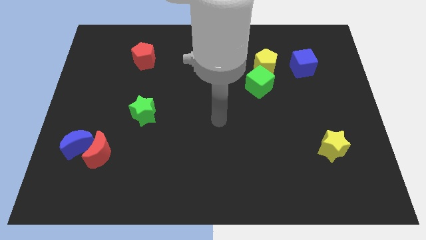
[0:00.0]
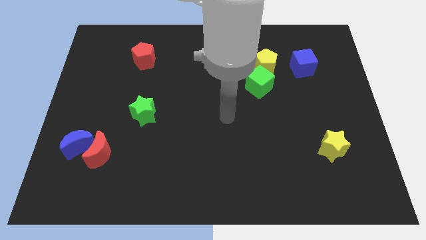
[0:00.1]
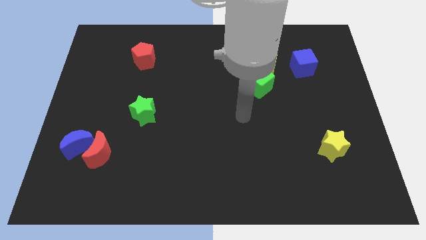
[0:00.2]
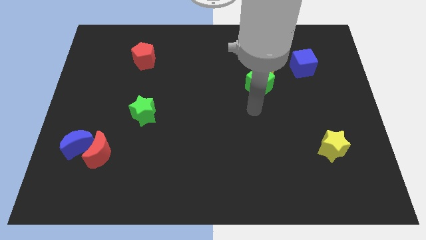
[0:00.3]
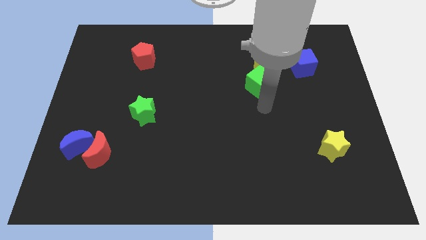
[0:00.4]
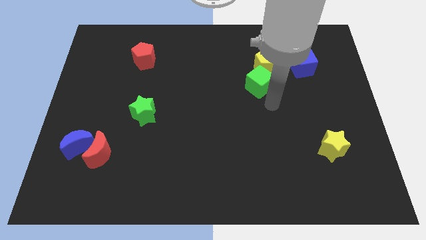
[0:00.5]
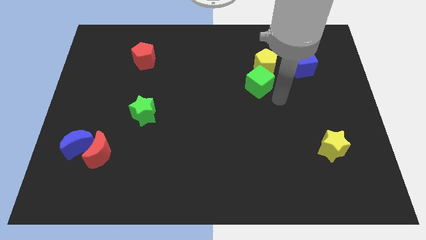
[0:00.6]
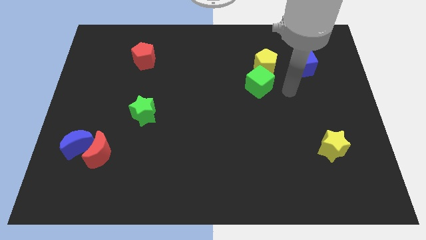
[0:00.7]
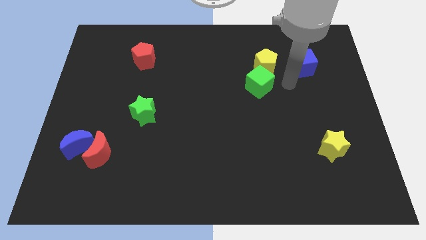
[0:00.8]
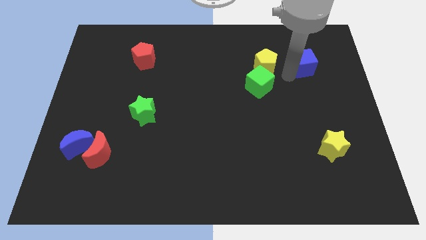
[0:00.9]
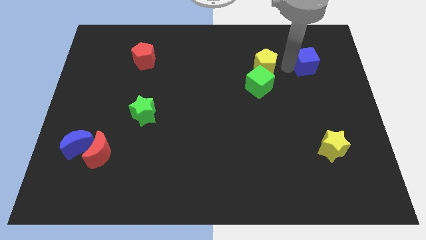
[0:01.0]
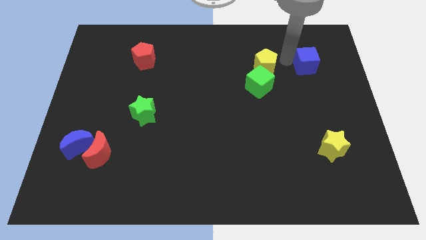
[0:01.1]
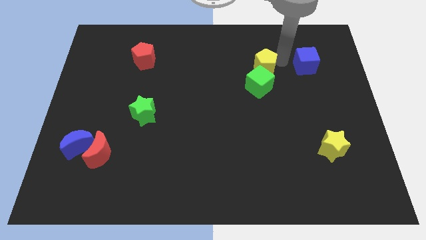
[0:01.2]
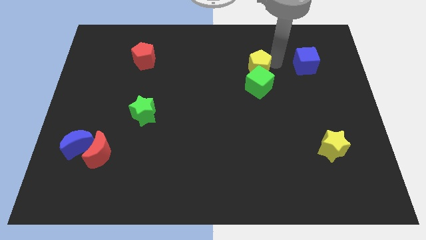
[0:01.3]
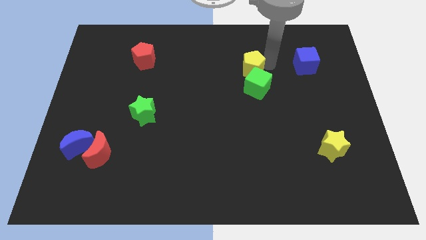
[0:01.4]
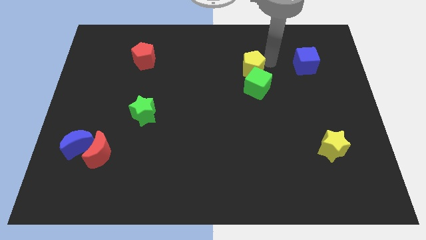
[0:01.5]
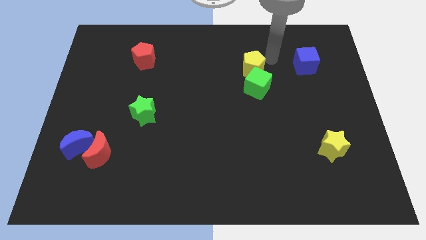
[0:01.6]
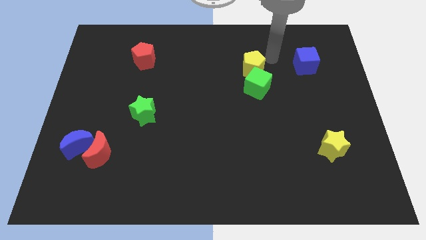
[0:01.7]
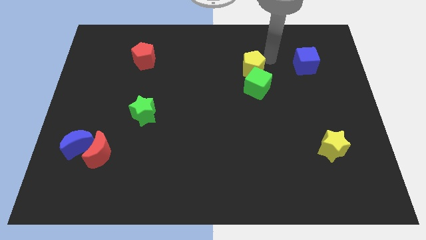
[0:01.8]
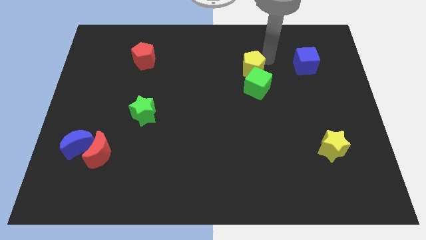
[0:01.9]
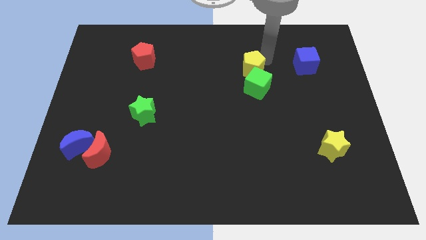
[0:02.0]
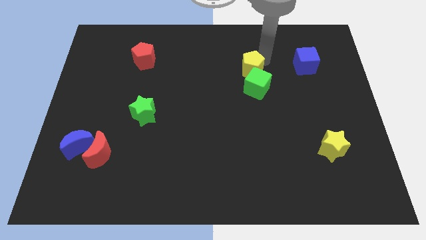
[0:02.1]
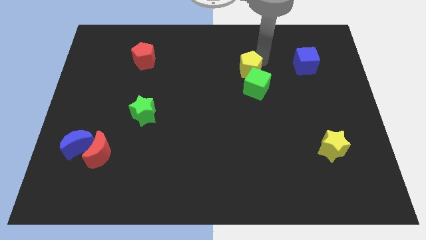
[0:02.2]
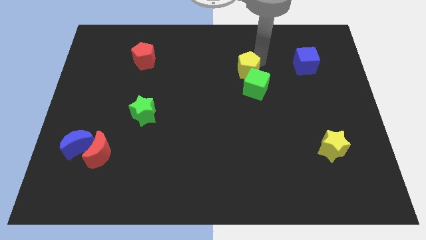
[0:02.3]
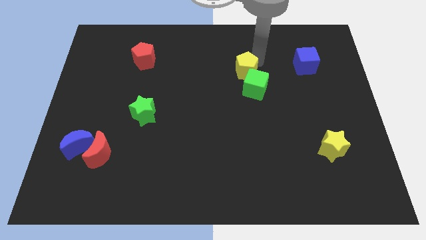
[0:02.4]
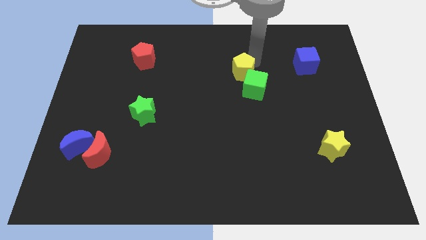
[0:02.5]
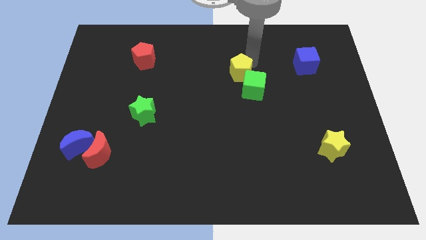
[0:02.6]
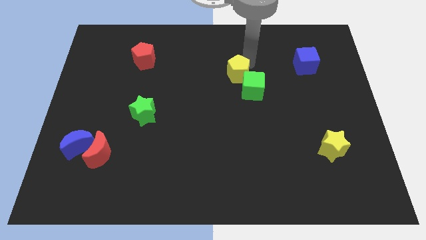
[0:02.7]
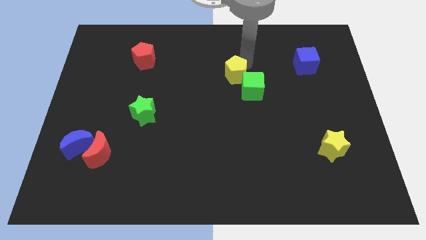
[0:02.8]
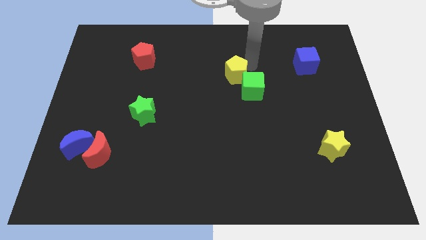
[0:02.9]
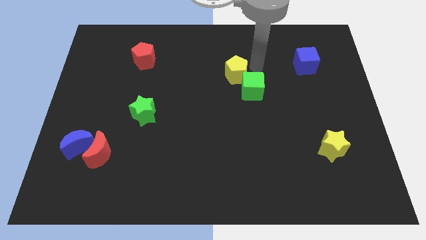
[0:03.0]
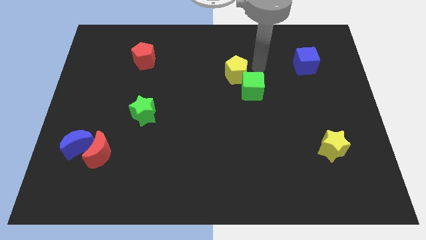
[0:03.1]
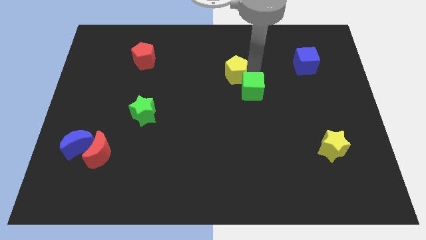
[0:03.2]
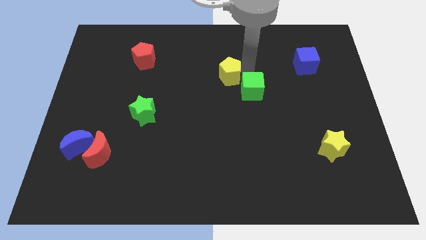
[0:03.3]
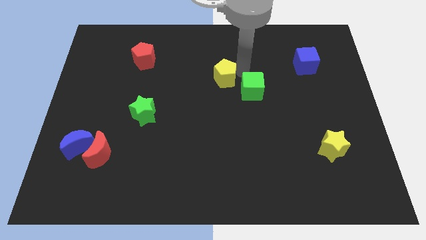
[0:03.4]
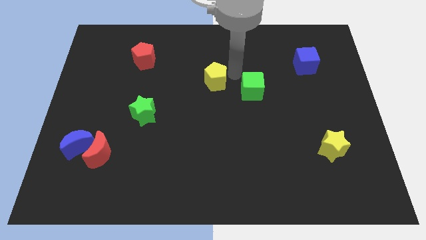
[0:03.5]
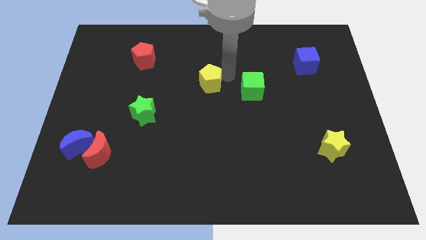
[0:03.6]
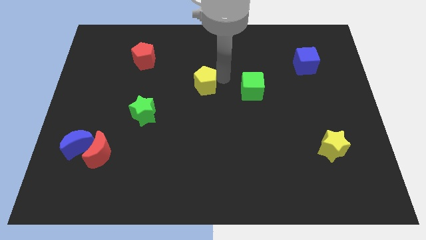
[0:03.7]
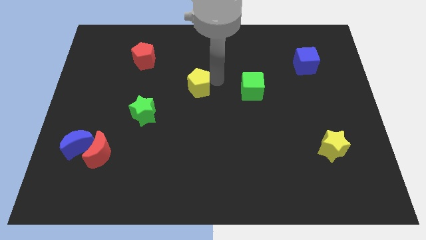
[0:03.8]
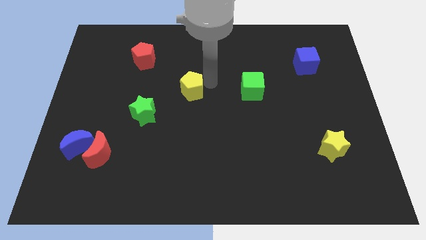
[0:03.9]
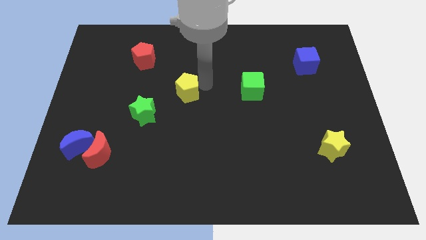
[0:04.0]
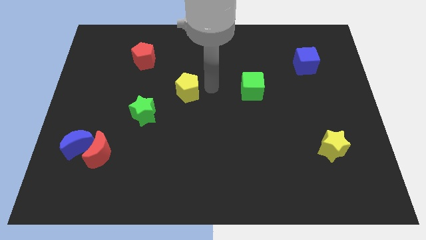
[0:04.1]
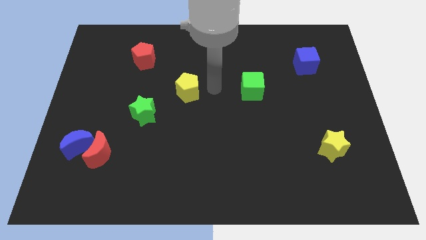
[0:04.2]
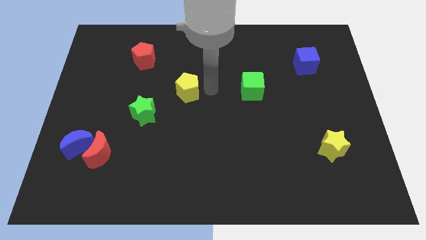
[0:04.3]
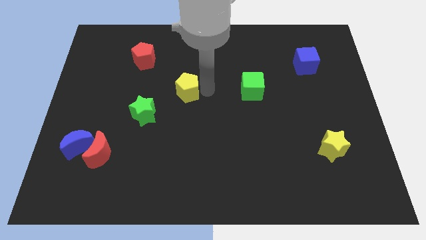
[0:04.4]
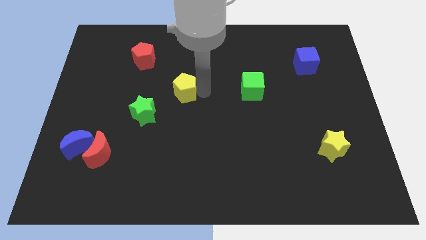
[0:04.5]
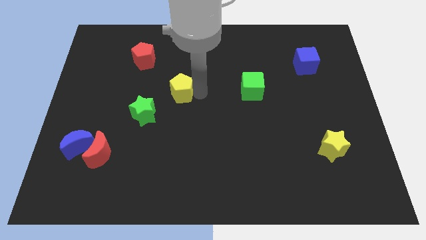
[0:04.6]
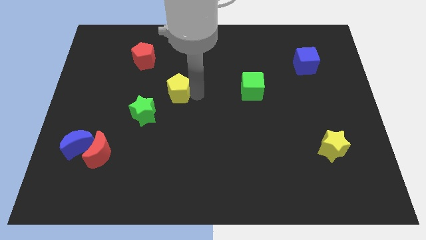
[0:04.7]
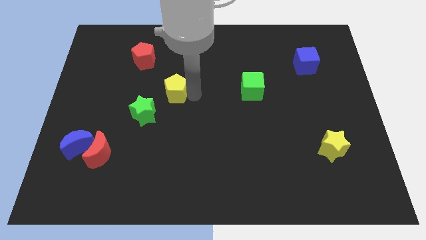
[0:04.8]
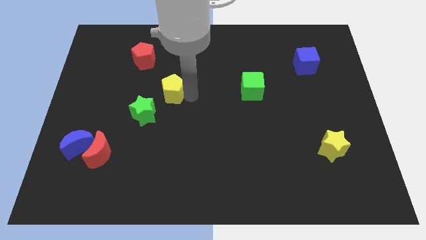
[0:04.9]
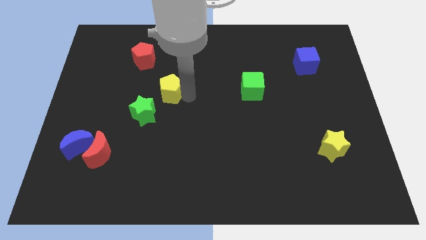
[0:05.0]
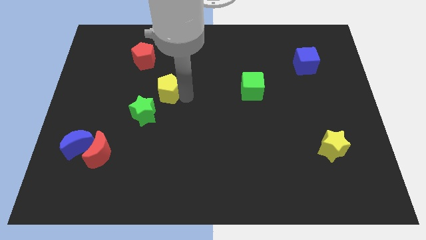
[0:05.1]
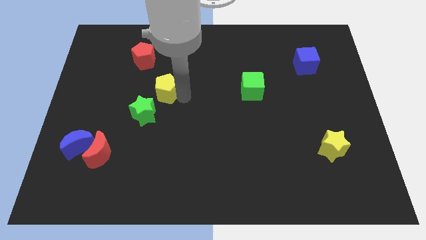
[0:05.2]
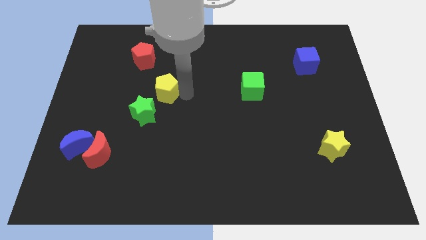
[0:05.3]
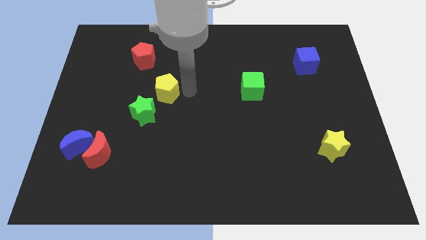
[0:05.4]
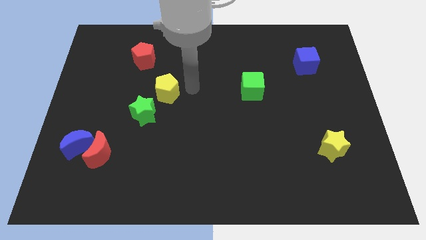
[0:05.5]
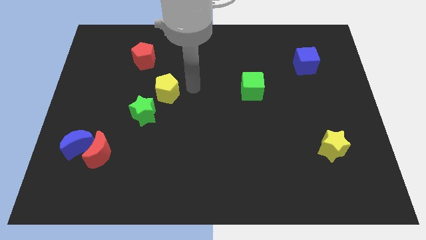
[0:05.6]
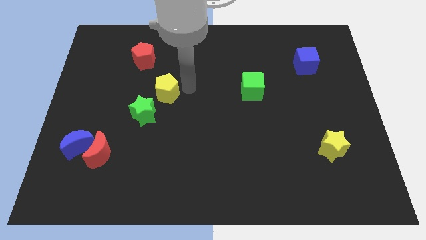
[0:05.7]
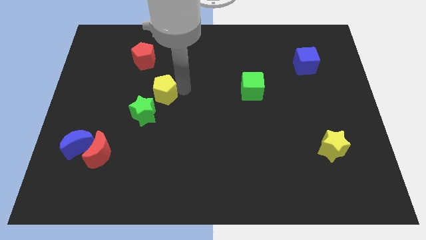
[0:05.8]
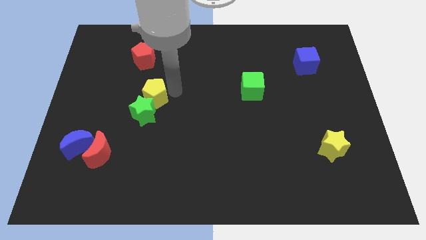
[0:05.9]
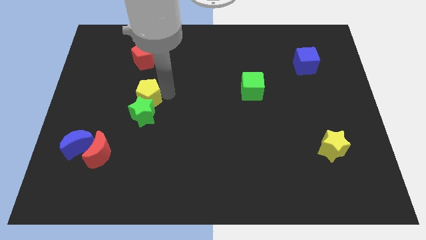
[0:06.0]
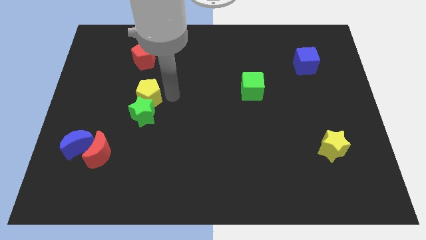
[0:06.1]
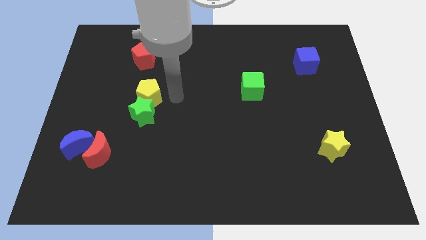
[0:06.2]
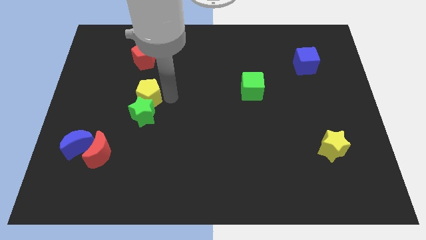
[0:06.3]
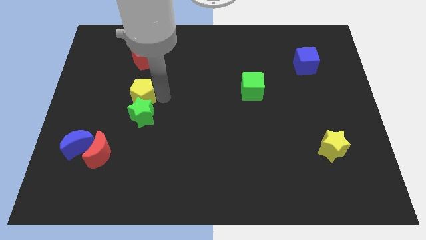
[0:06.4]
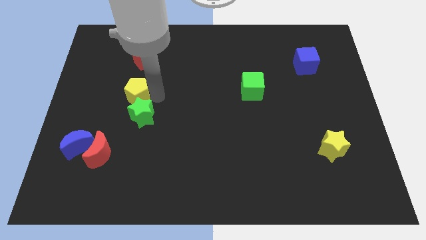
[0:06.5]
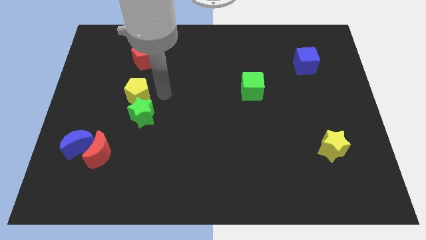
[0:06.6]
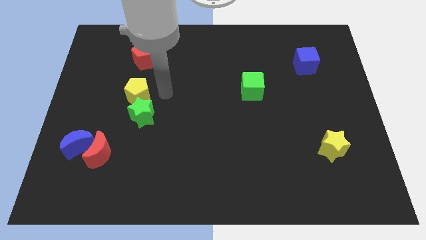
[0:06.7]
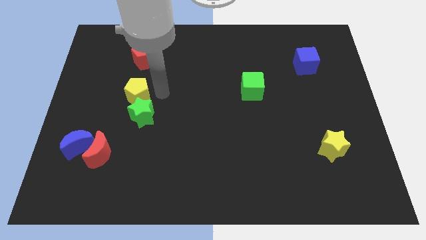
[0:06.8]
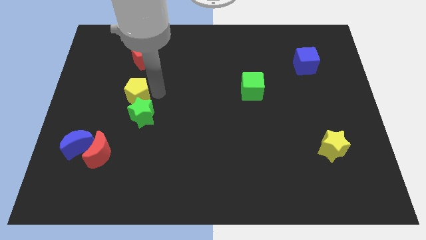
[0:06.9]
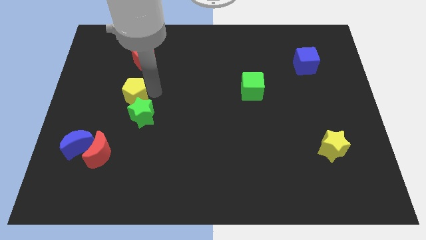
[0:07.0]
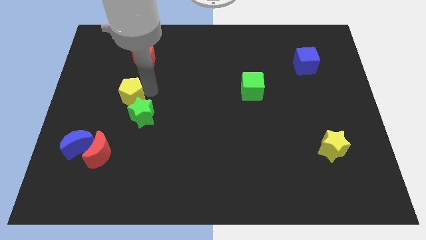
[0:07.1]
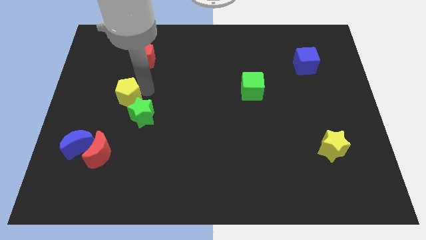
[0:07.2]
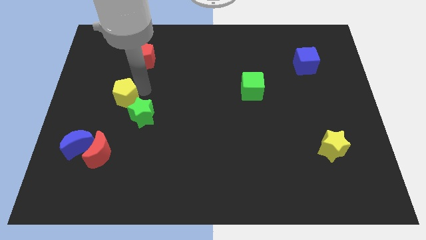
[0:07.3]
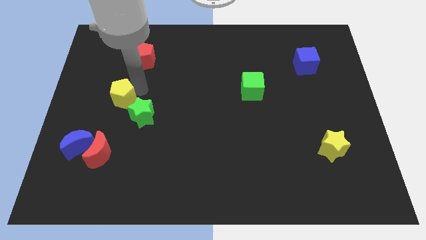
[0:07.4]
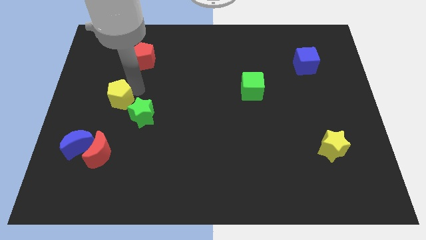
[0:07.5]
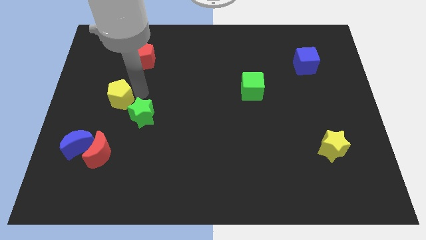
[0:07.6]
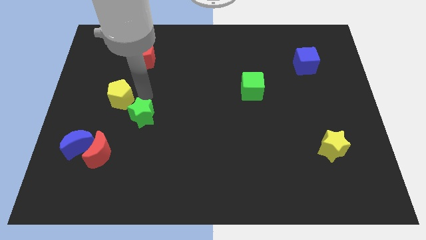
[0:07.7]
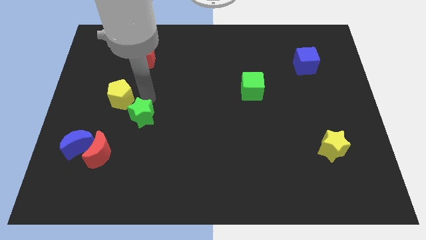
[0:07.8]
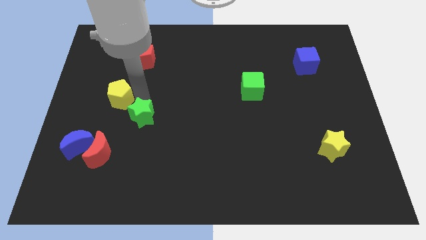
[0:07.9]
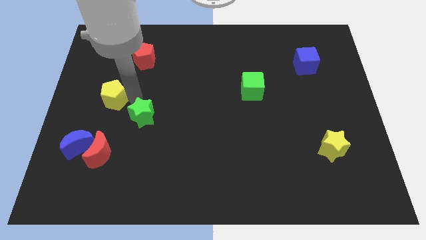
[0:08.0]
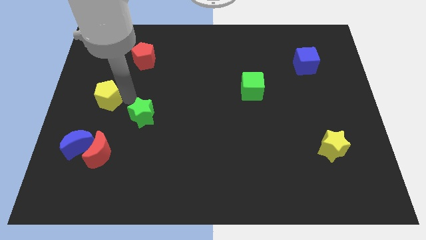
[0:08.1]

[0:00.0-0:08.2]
move the yellow pentagon to the left side
